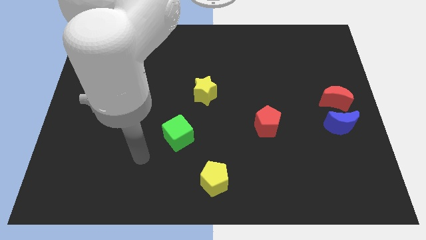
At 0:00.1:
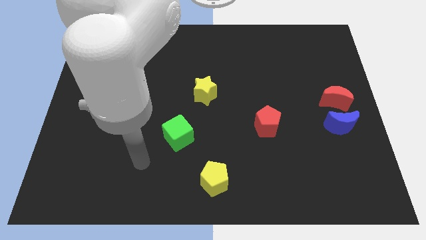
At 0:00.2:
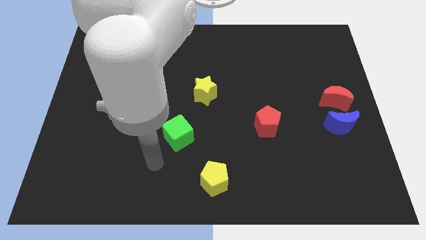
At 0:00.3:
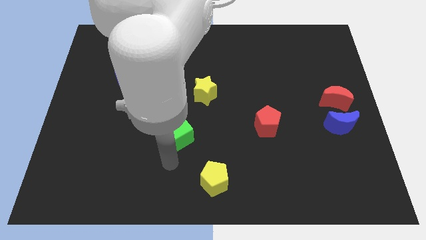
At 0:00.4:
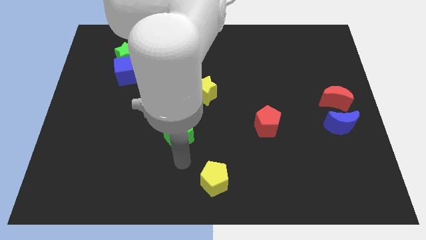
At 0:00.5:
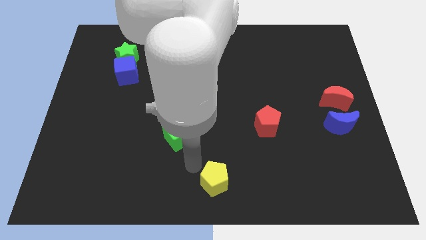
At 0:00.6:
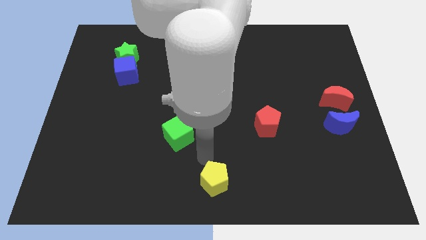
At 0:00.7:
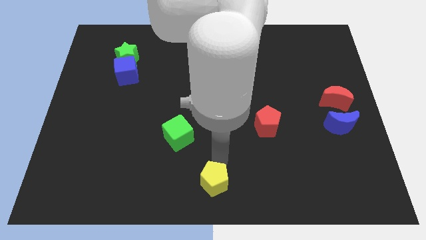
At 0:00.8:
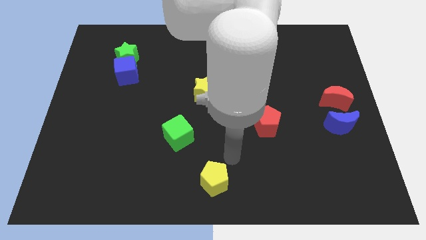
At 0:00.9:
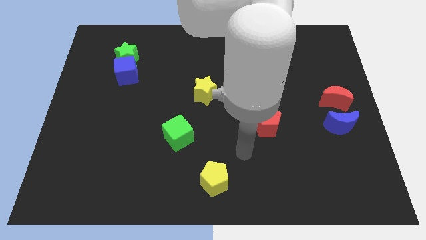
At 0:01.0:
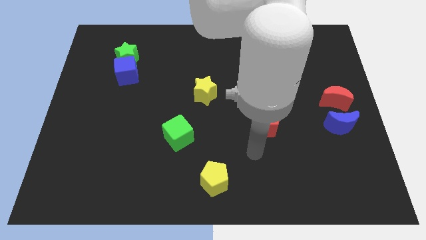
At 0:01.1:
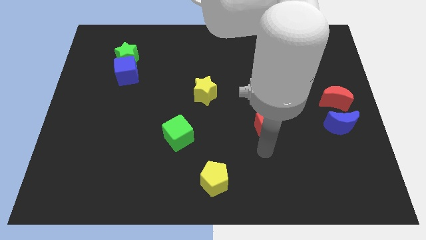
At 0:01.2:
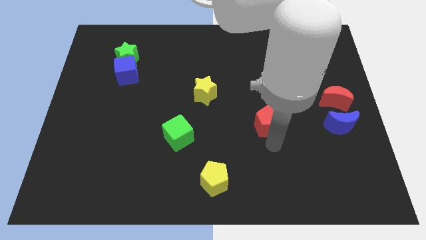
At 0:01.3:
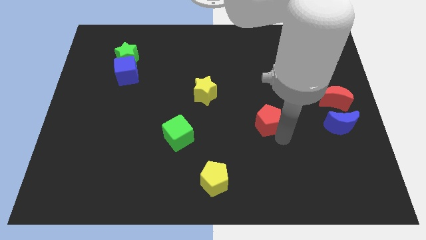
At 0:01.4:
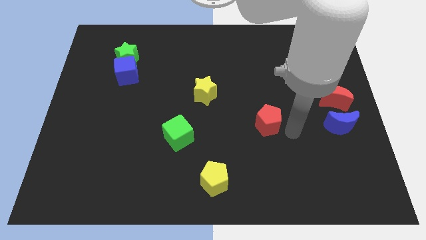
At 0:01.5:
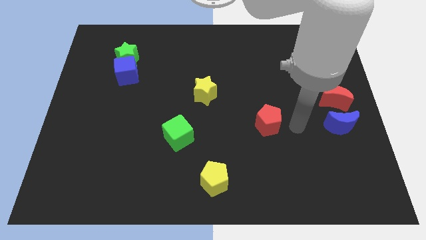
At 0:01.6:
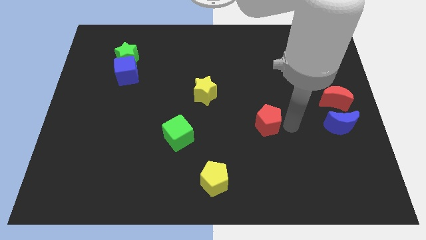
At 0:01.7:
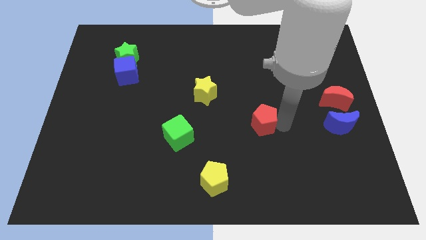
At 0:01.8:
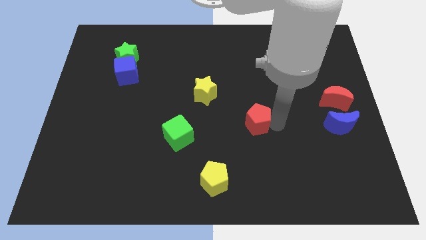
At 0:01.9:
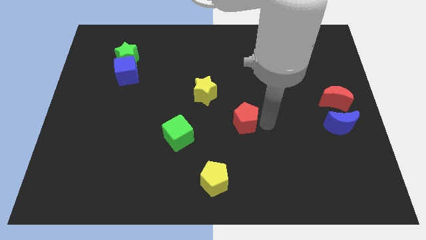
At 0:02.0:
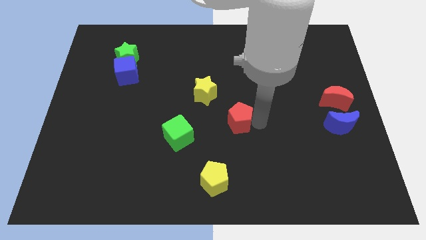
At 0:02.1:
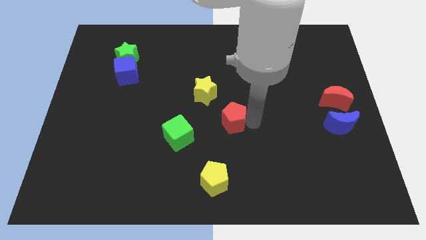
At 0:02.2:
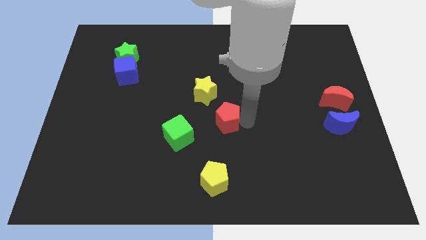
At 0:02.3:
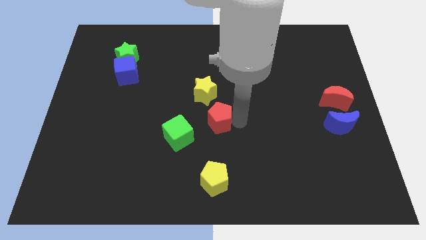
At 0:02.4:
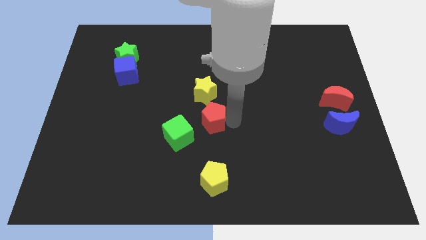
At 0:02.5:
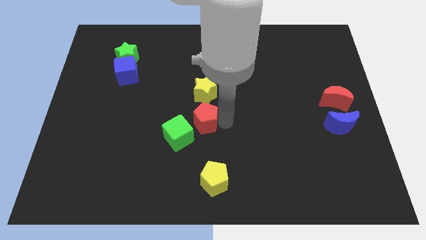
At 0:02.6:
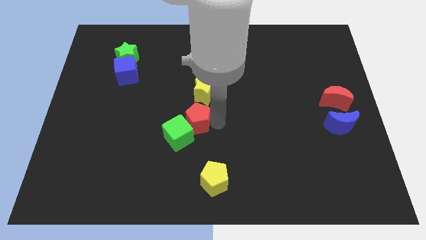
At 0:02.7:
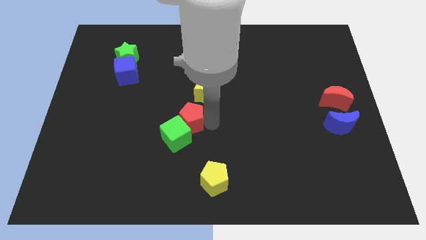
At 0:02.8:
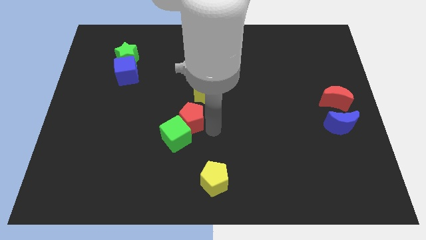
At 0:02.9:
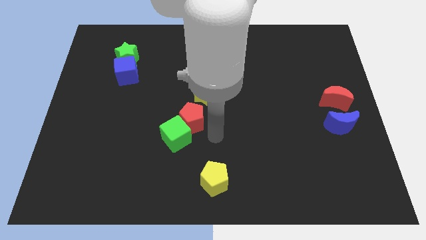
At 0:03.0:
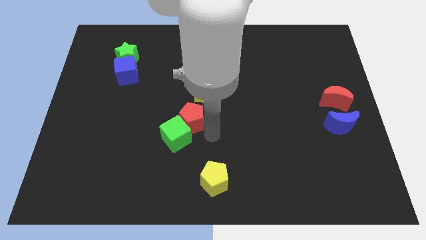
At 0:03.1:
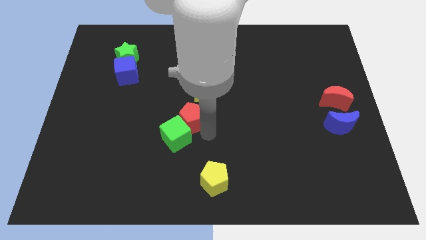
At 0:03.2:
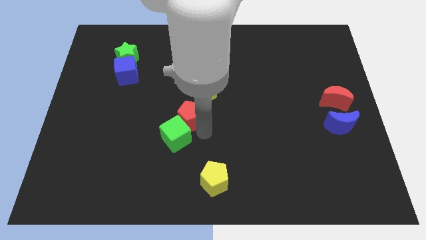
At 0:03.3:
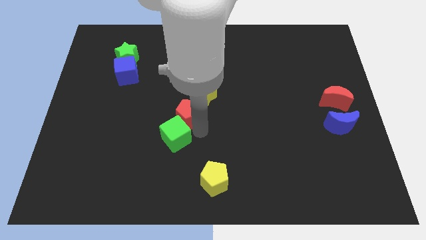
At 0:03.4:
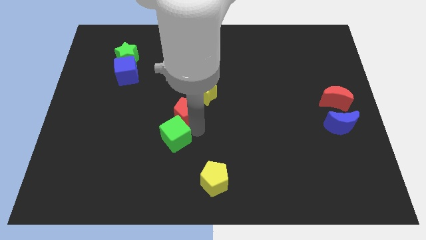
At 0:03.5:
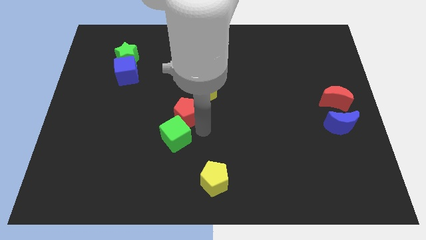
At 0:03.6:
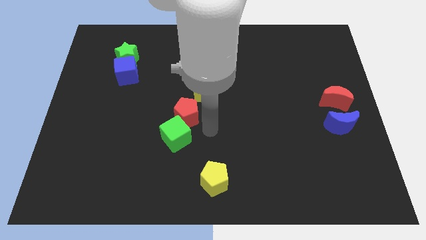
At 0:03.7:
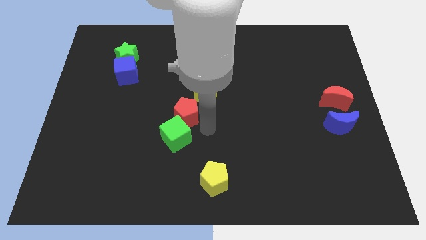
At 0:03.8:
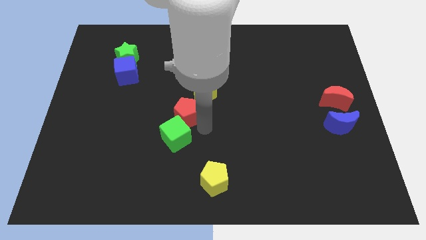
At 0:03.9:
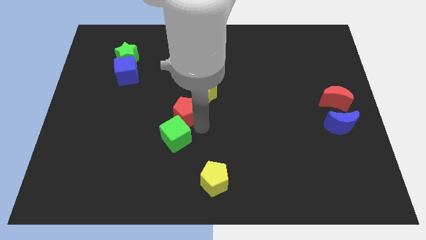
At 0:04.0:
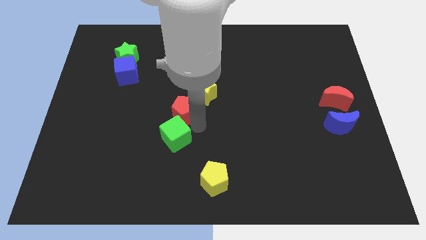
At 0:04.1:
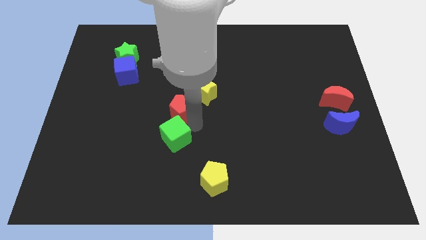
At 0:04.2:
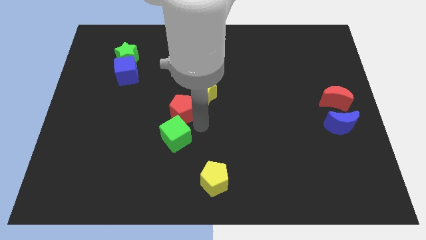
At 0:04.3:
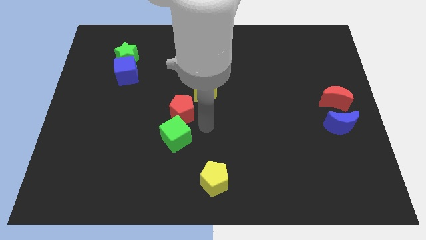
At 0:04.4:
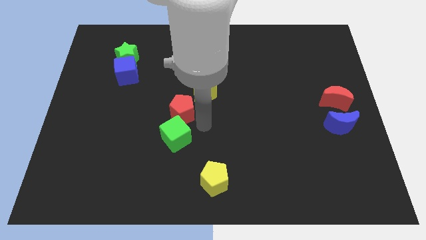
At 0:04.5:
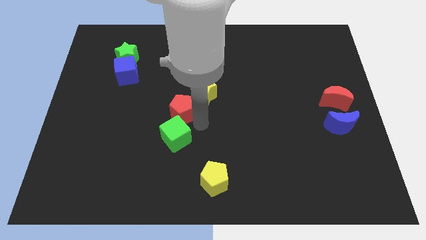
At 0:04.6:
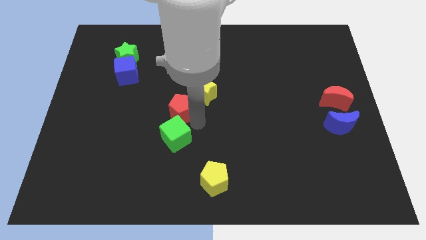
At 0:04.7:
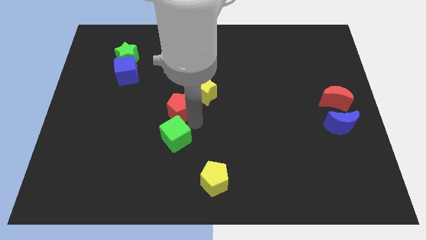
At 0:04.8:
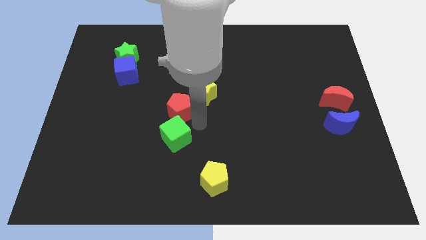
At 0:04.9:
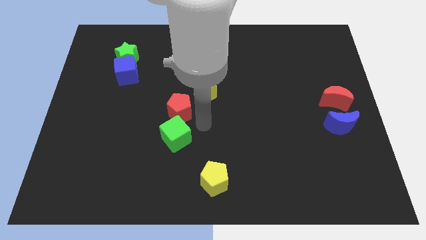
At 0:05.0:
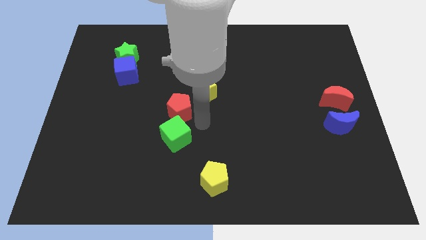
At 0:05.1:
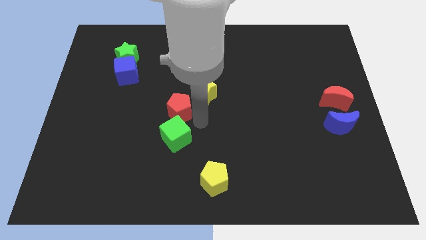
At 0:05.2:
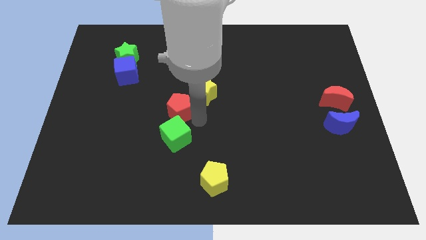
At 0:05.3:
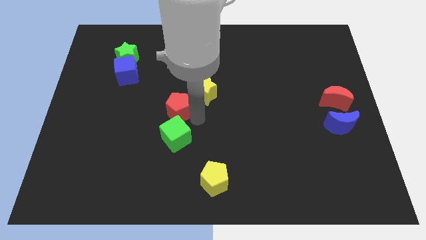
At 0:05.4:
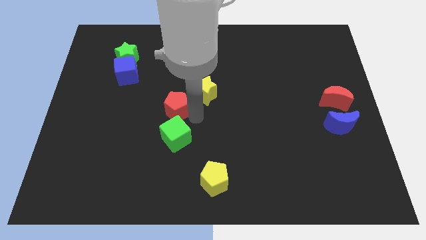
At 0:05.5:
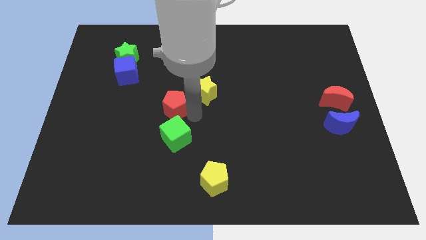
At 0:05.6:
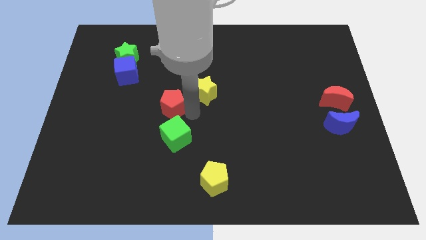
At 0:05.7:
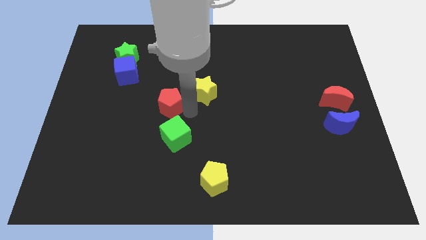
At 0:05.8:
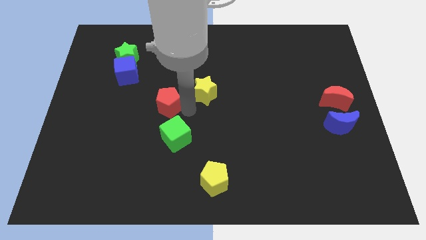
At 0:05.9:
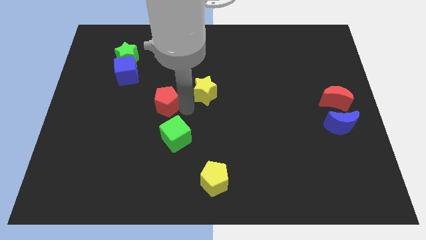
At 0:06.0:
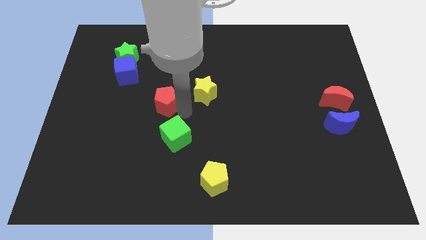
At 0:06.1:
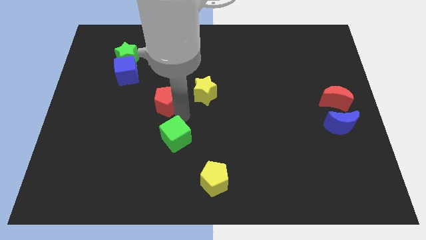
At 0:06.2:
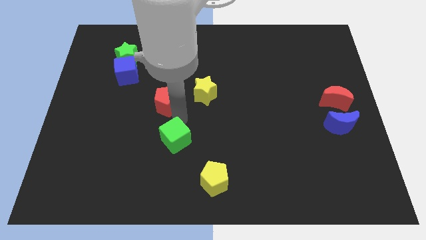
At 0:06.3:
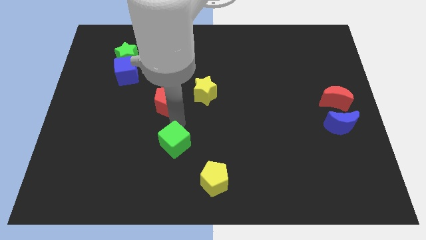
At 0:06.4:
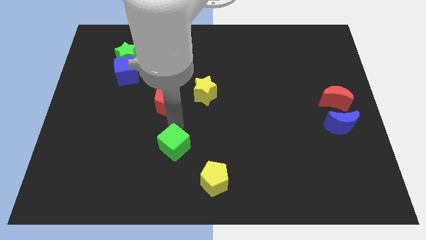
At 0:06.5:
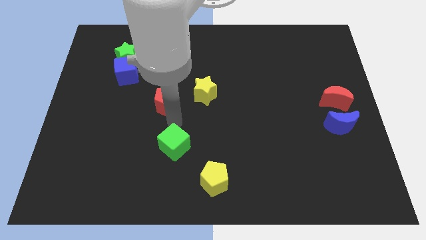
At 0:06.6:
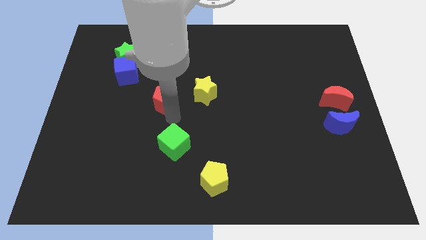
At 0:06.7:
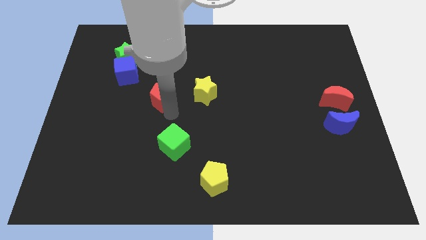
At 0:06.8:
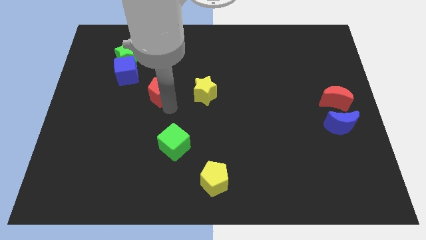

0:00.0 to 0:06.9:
put the red pentagon to the bottom right side of the blue cube
